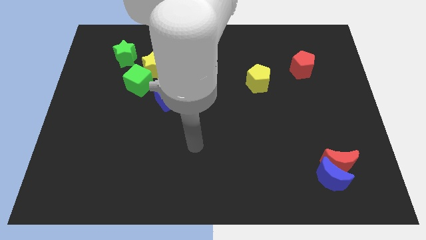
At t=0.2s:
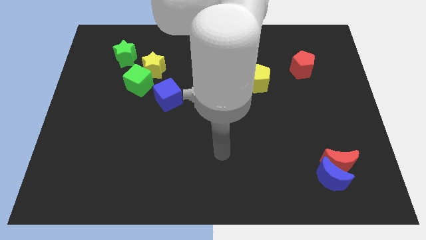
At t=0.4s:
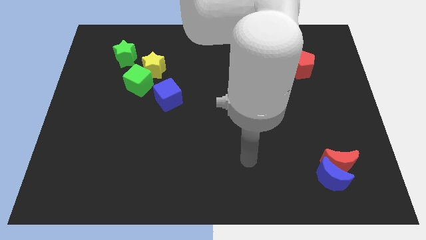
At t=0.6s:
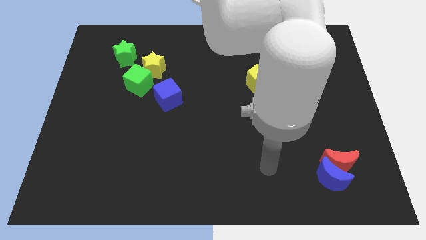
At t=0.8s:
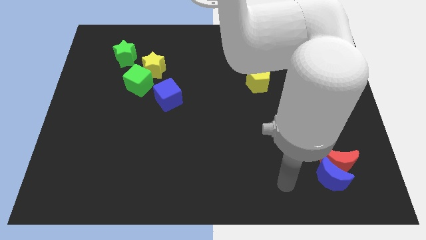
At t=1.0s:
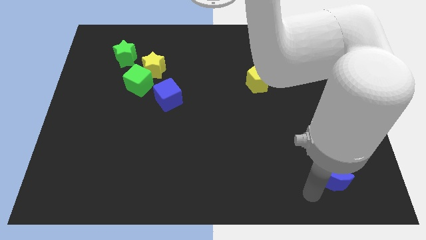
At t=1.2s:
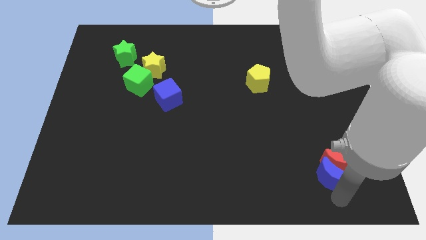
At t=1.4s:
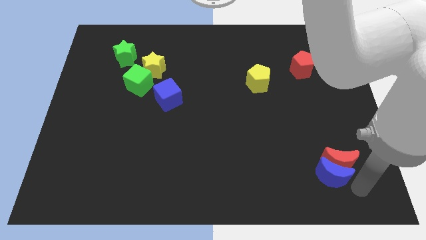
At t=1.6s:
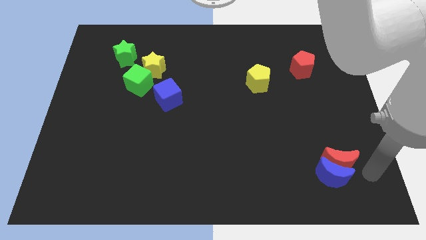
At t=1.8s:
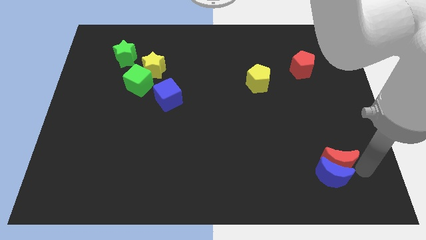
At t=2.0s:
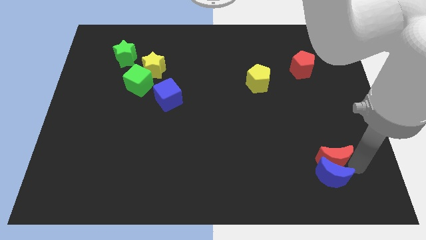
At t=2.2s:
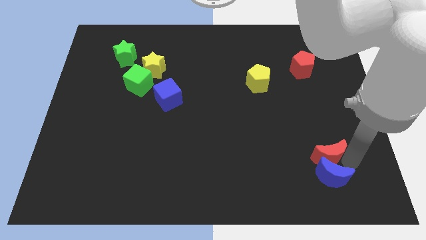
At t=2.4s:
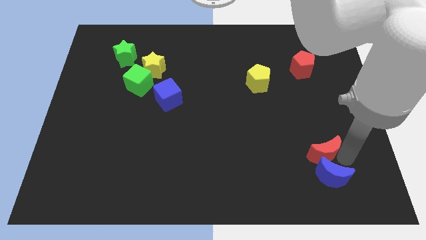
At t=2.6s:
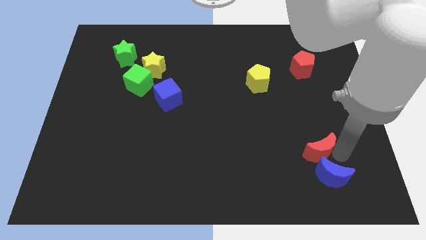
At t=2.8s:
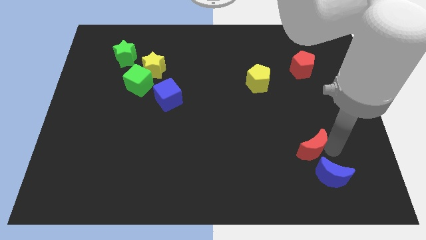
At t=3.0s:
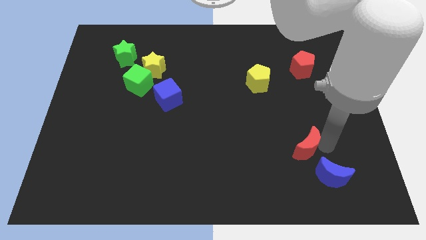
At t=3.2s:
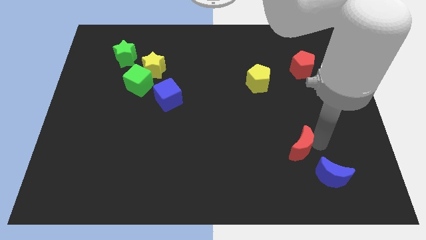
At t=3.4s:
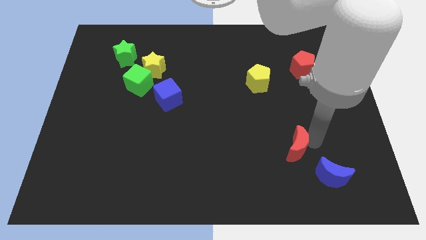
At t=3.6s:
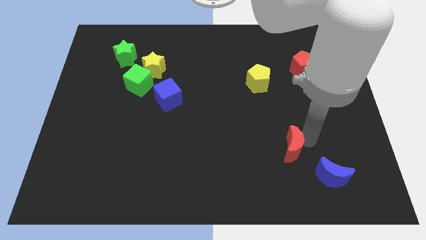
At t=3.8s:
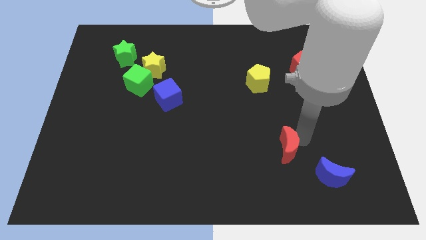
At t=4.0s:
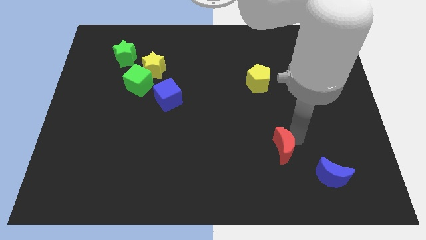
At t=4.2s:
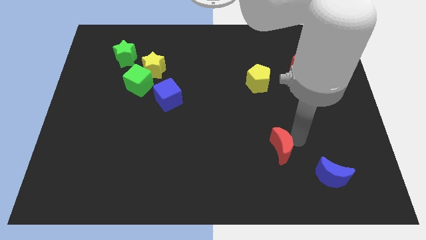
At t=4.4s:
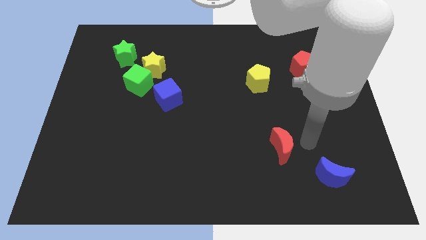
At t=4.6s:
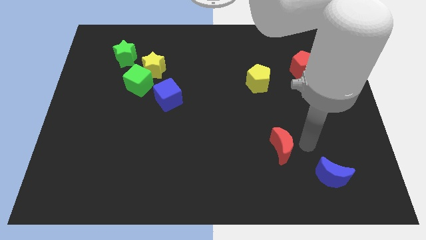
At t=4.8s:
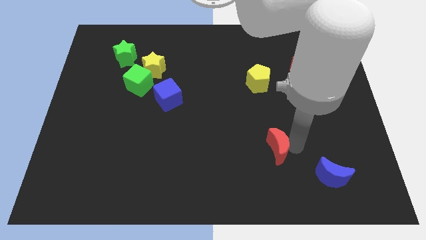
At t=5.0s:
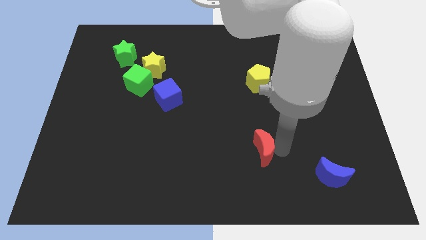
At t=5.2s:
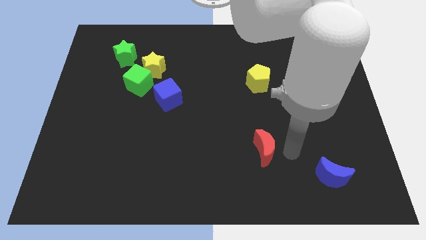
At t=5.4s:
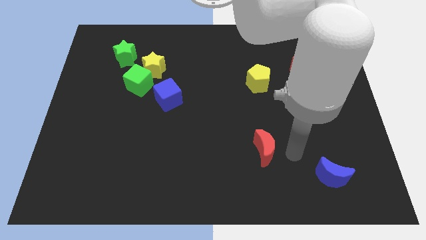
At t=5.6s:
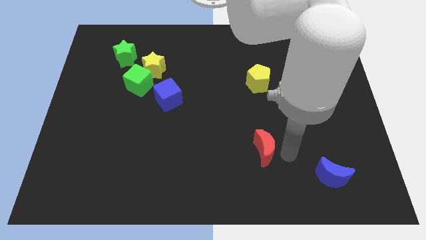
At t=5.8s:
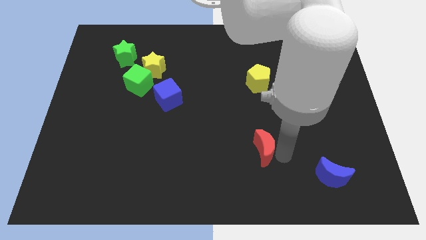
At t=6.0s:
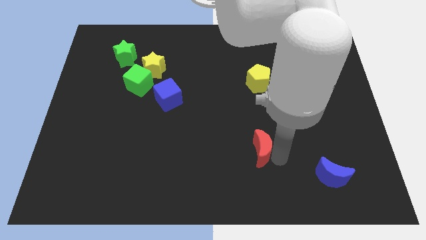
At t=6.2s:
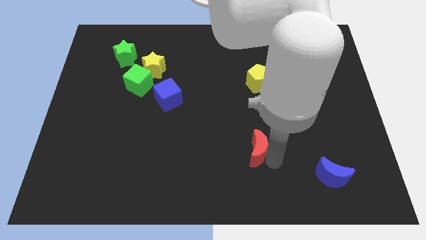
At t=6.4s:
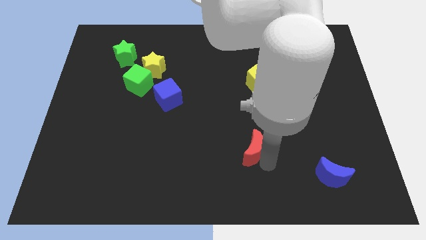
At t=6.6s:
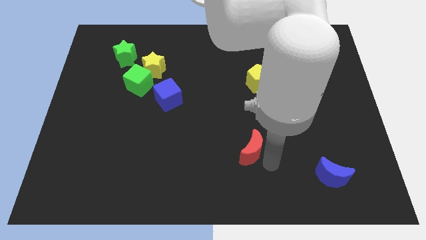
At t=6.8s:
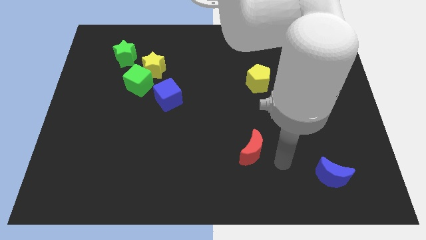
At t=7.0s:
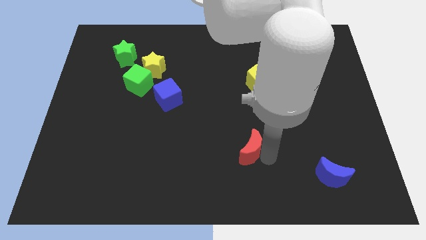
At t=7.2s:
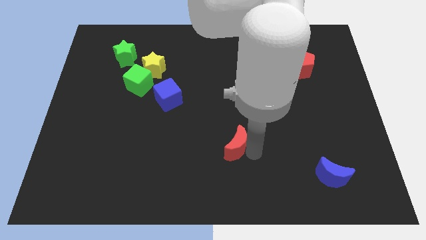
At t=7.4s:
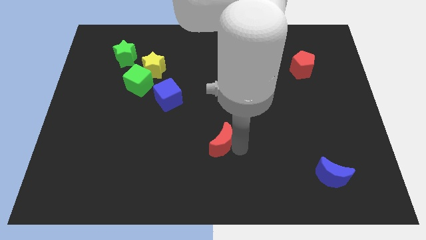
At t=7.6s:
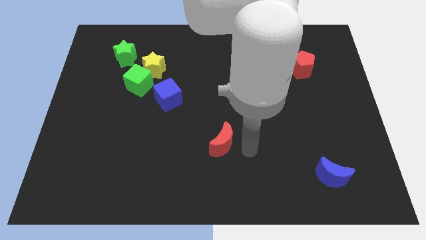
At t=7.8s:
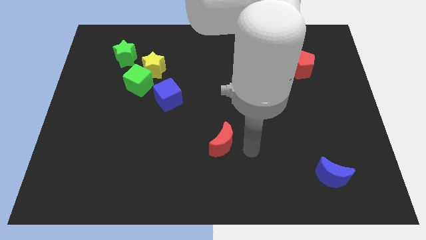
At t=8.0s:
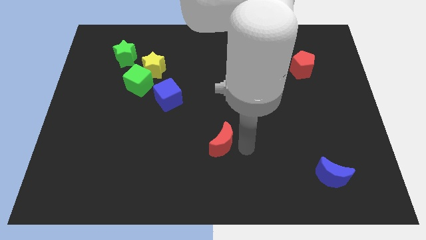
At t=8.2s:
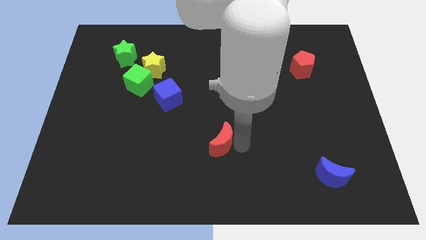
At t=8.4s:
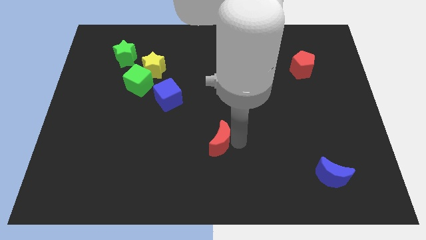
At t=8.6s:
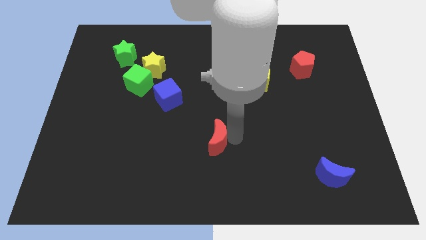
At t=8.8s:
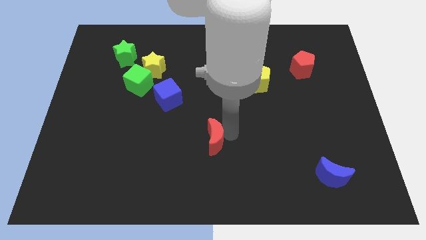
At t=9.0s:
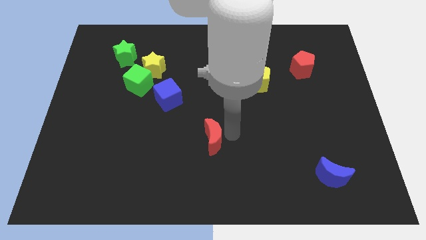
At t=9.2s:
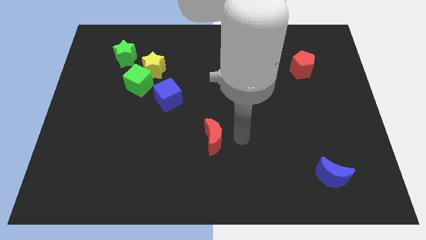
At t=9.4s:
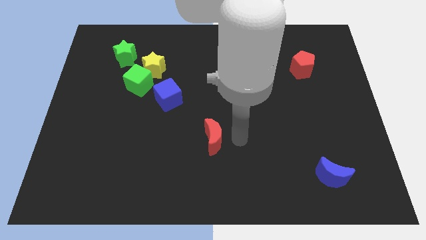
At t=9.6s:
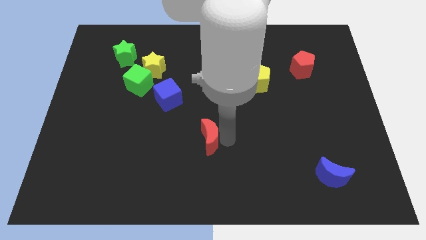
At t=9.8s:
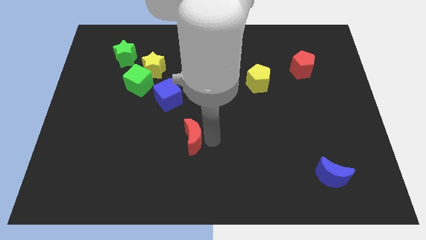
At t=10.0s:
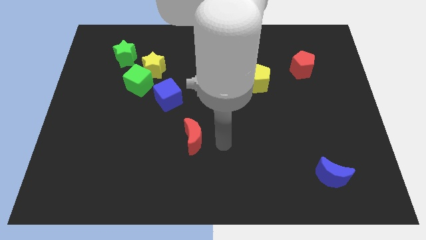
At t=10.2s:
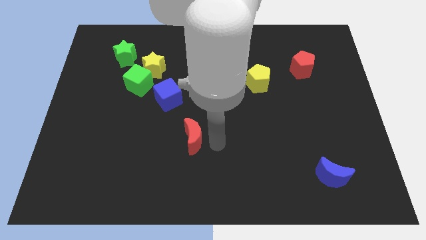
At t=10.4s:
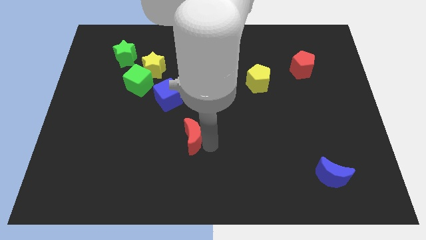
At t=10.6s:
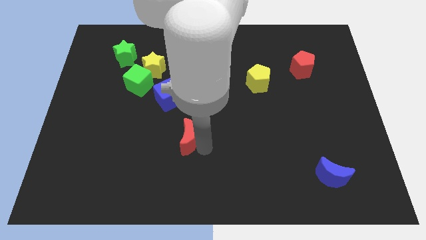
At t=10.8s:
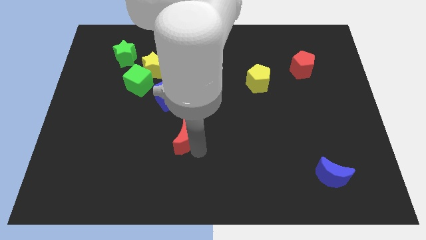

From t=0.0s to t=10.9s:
put the red moon below the blue cube

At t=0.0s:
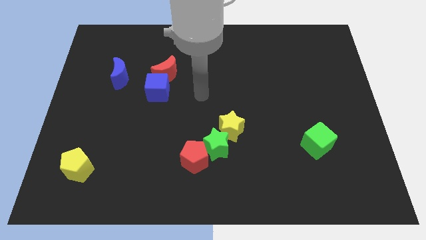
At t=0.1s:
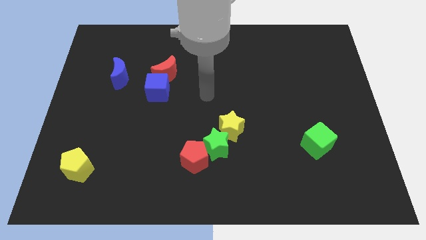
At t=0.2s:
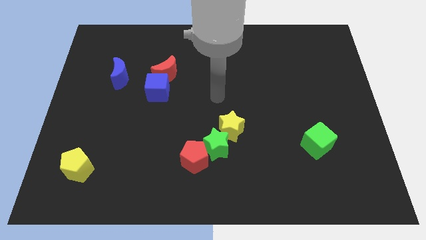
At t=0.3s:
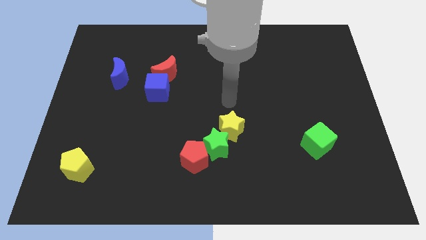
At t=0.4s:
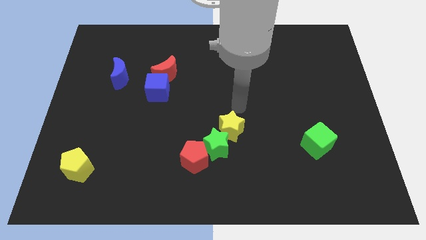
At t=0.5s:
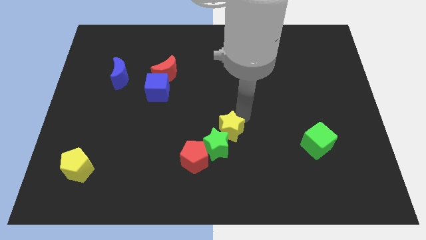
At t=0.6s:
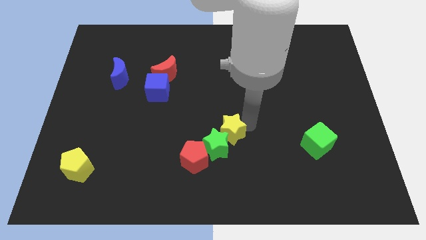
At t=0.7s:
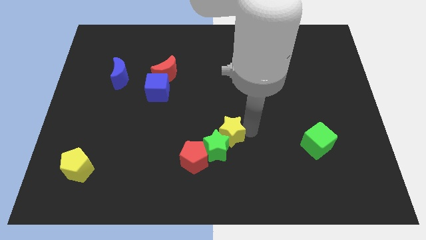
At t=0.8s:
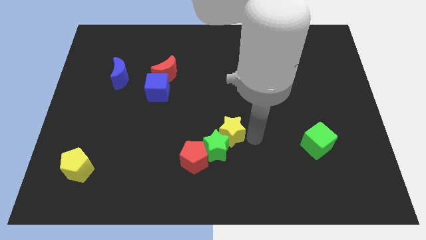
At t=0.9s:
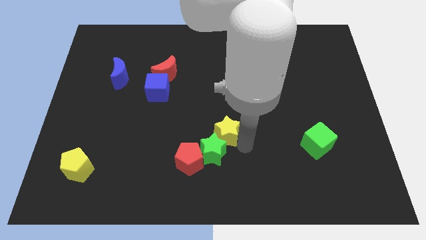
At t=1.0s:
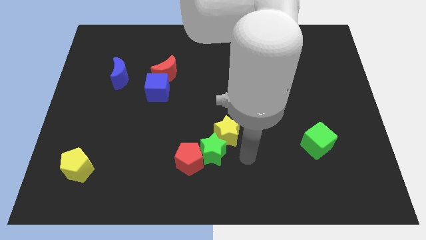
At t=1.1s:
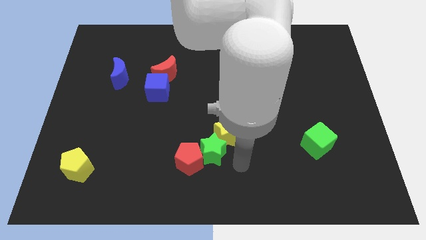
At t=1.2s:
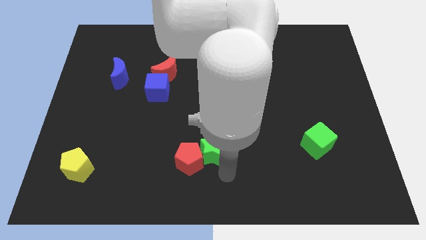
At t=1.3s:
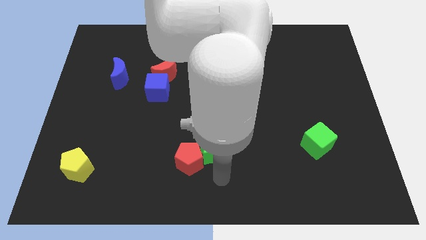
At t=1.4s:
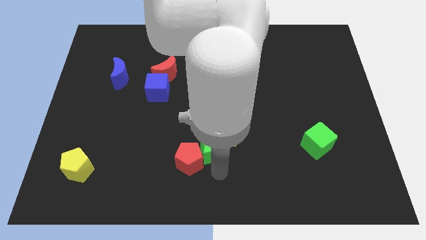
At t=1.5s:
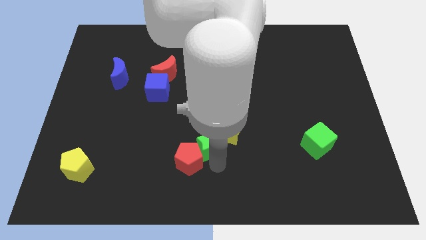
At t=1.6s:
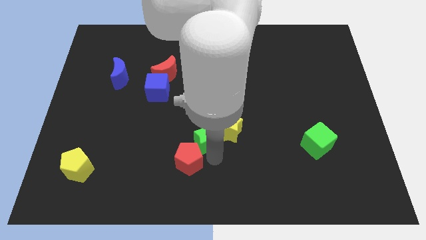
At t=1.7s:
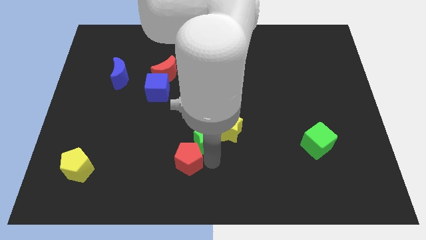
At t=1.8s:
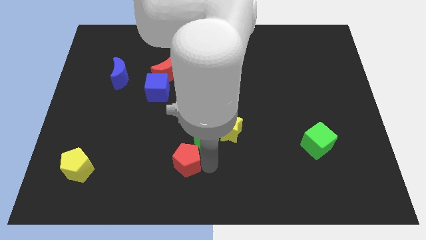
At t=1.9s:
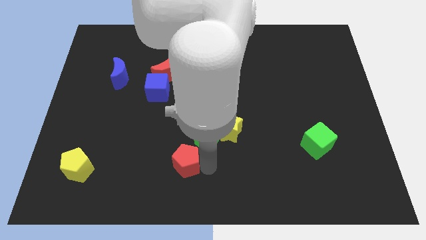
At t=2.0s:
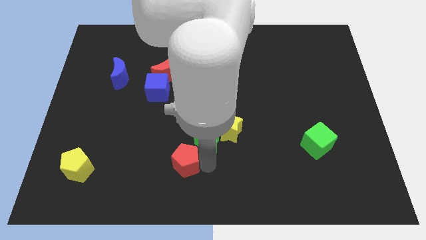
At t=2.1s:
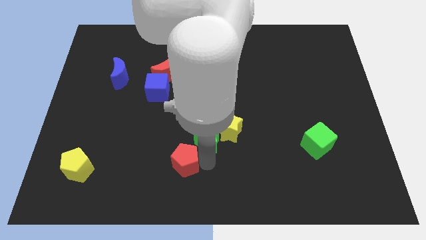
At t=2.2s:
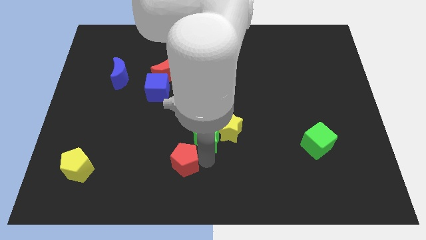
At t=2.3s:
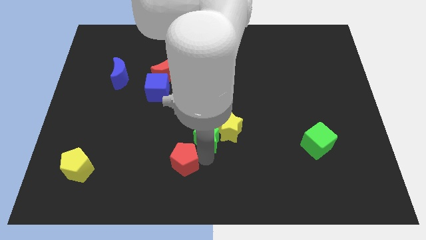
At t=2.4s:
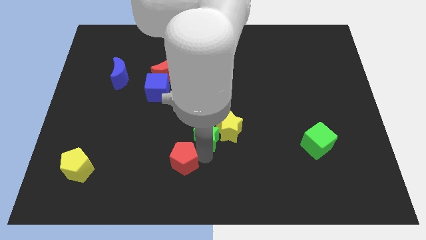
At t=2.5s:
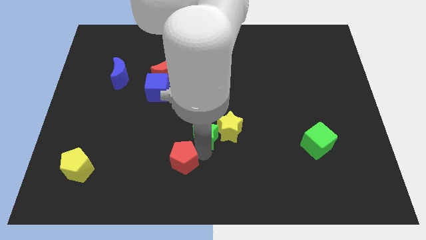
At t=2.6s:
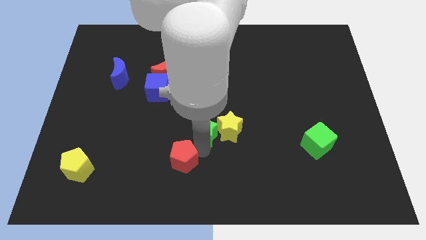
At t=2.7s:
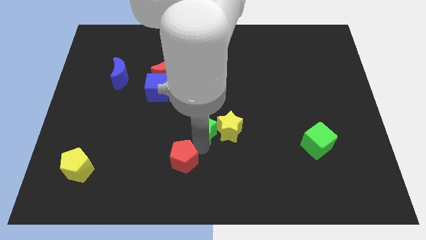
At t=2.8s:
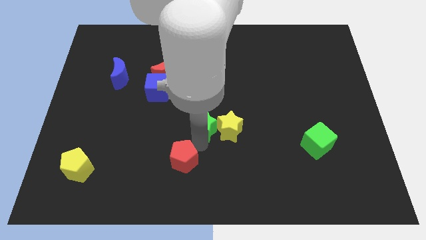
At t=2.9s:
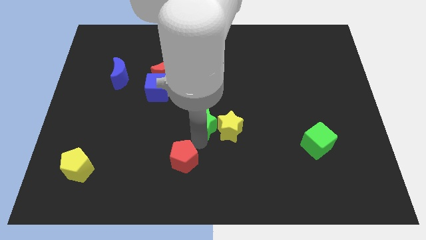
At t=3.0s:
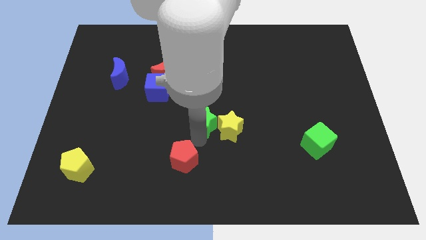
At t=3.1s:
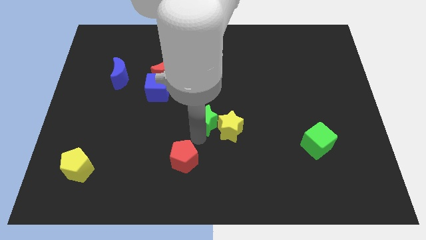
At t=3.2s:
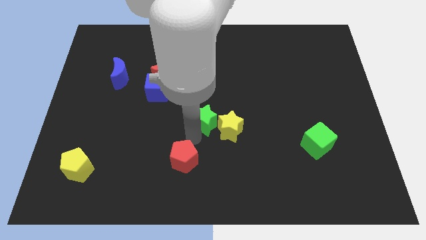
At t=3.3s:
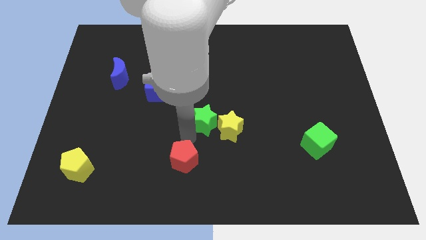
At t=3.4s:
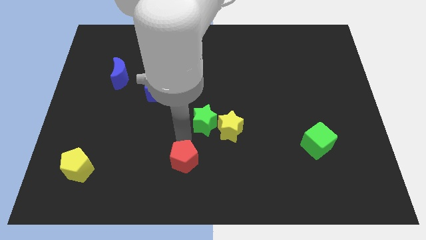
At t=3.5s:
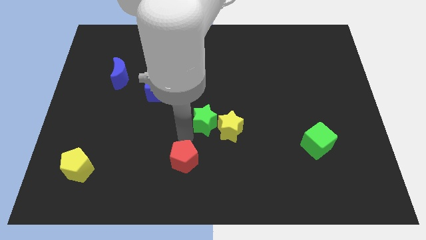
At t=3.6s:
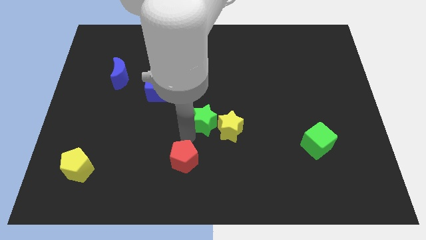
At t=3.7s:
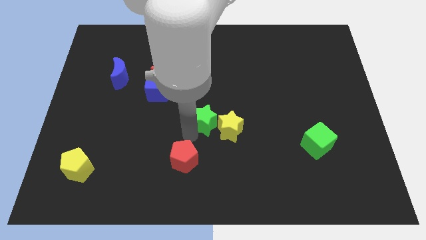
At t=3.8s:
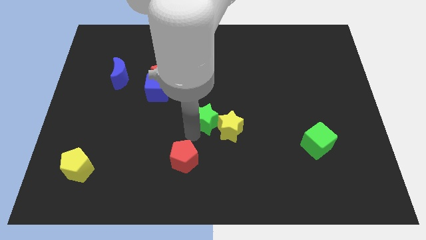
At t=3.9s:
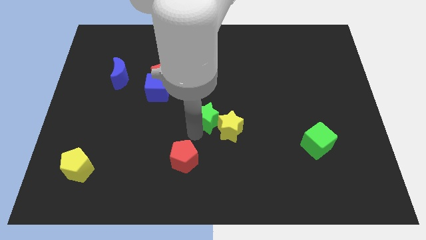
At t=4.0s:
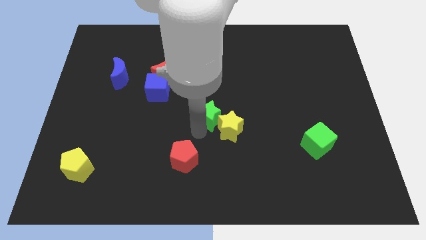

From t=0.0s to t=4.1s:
put the green star above the yellow star
